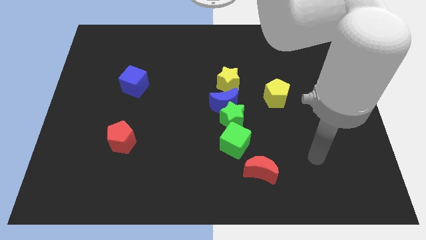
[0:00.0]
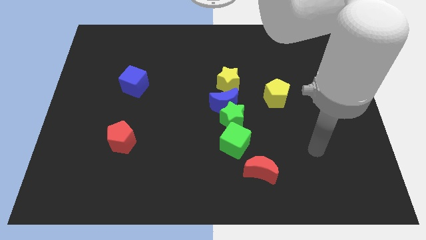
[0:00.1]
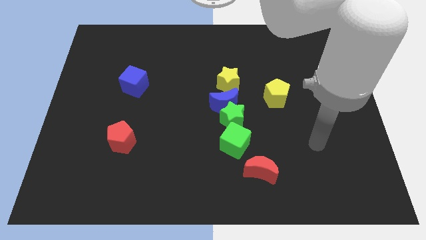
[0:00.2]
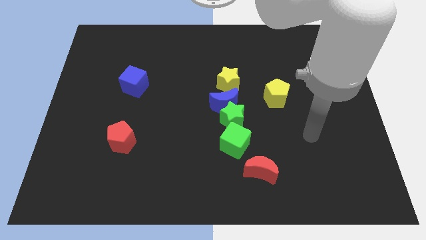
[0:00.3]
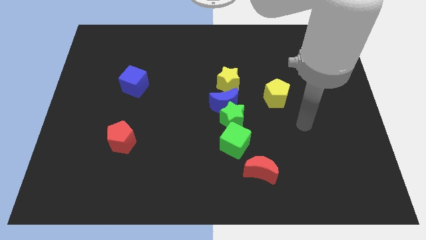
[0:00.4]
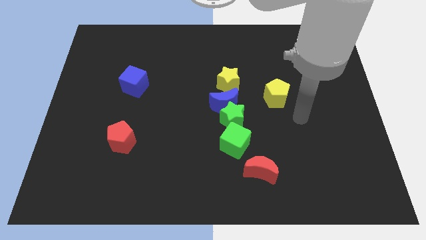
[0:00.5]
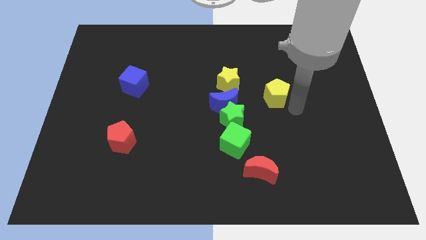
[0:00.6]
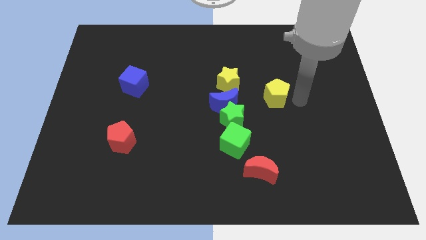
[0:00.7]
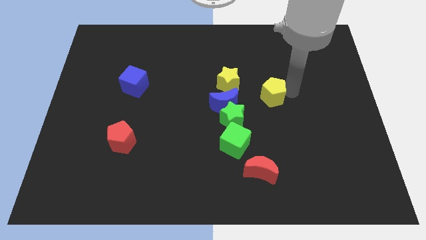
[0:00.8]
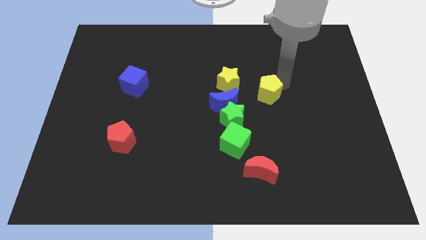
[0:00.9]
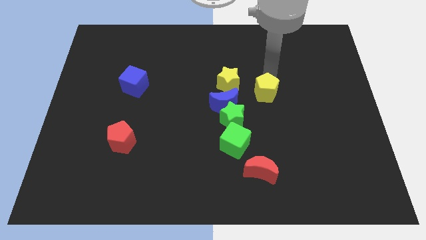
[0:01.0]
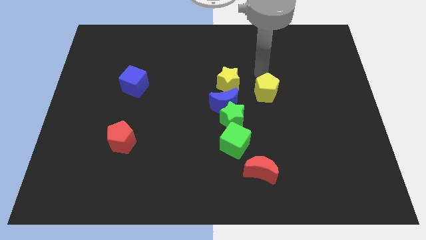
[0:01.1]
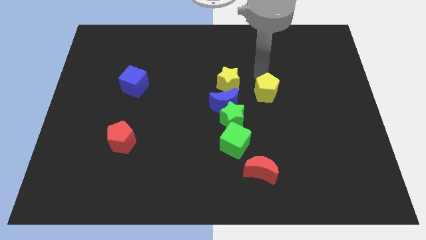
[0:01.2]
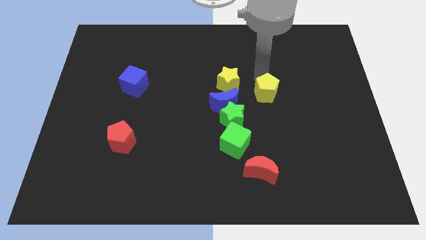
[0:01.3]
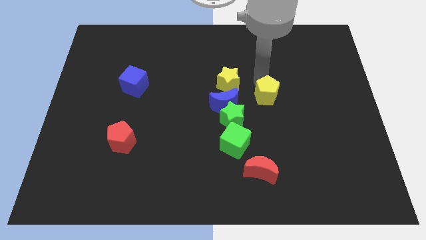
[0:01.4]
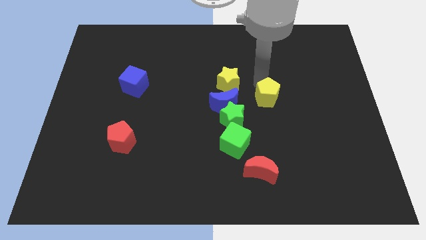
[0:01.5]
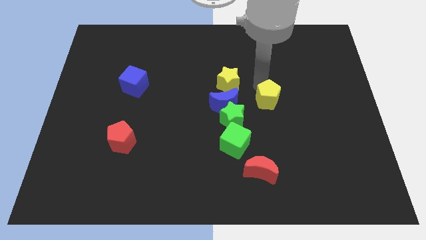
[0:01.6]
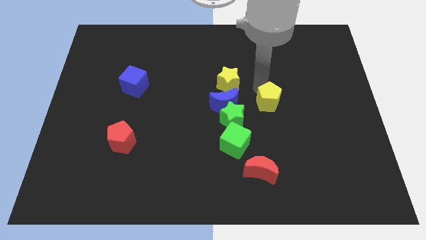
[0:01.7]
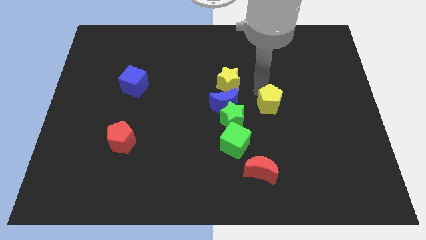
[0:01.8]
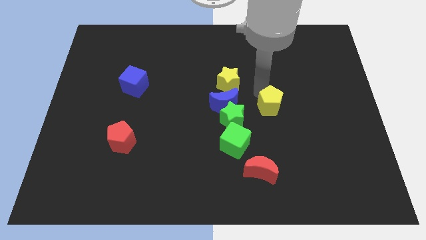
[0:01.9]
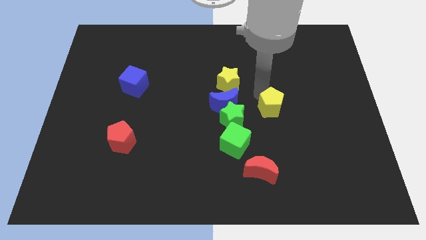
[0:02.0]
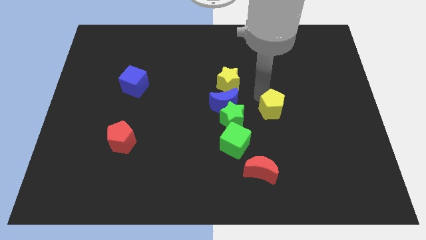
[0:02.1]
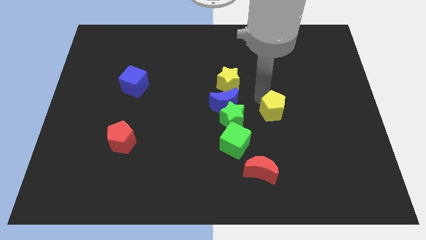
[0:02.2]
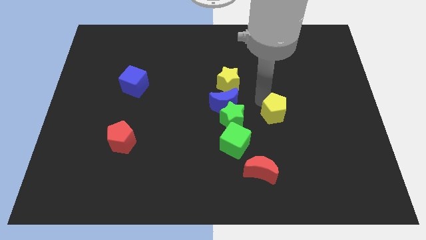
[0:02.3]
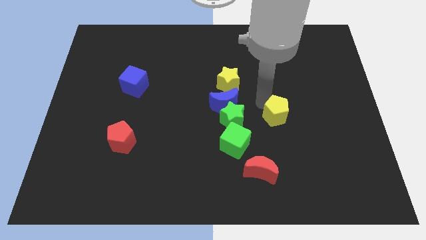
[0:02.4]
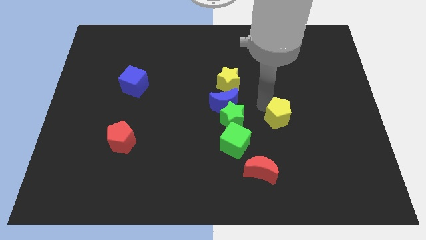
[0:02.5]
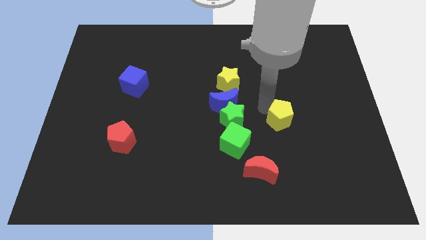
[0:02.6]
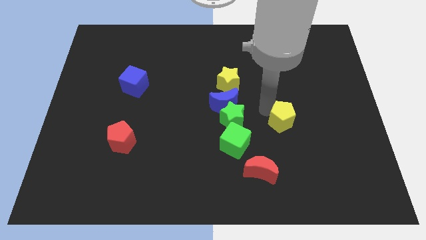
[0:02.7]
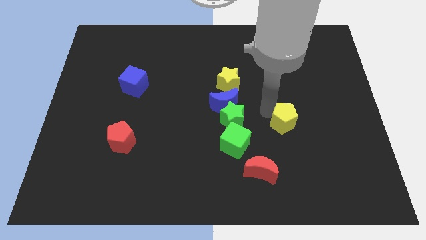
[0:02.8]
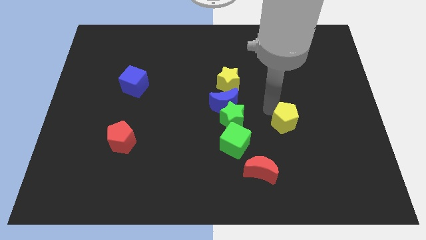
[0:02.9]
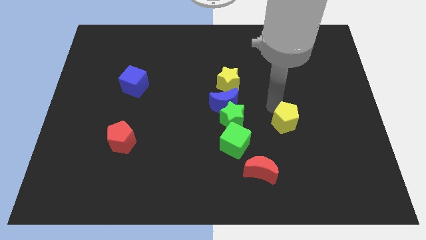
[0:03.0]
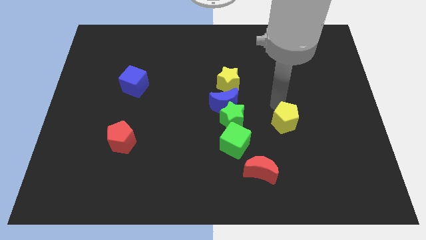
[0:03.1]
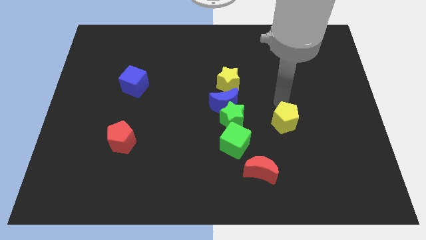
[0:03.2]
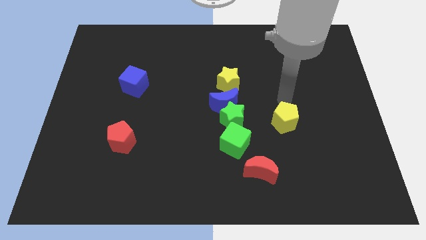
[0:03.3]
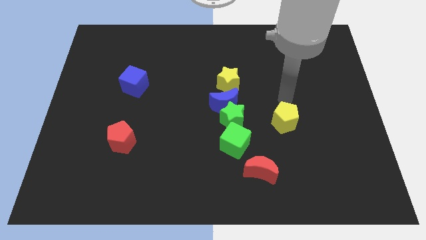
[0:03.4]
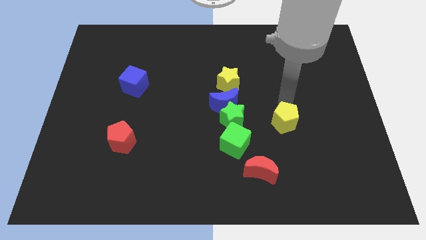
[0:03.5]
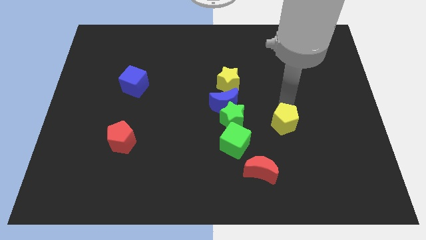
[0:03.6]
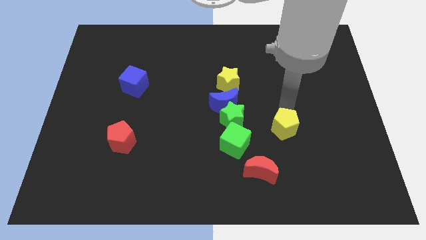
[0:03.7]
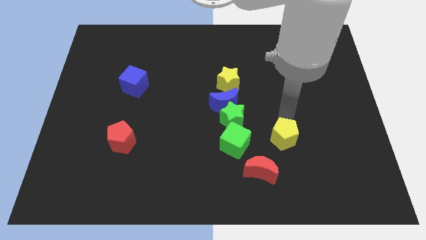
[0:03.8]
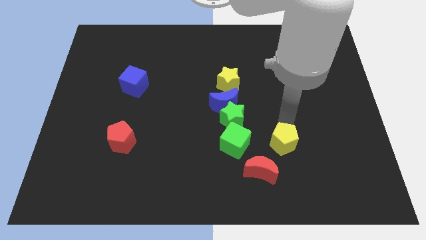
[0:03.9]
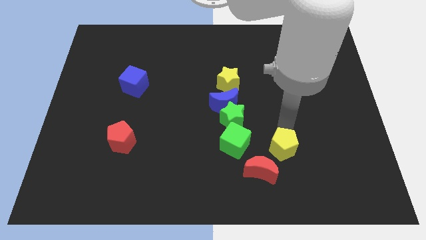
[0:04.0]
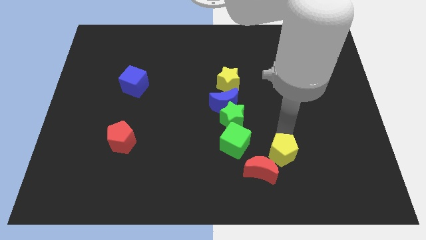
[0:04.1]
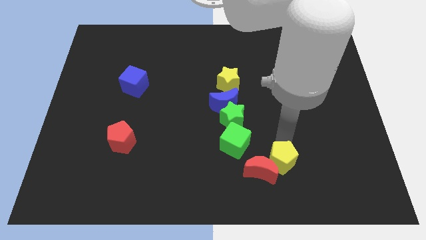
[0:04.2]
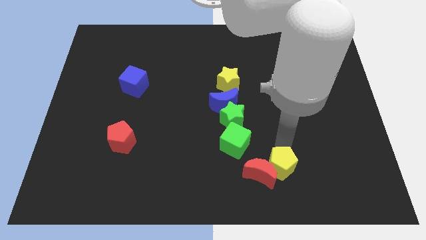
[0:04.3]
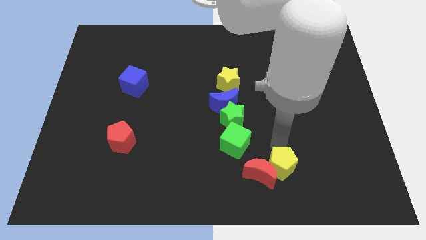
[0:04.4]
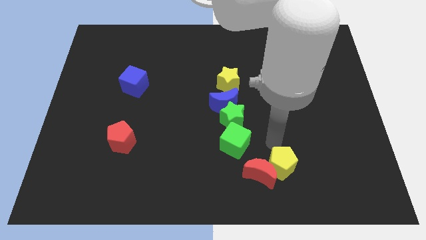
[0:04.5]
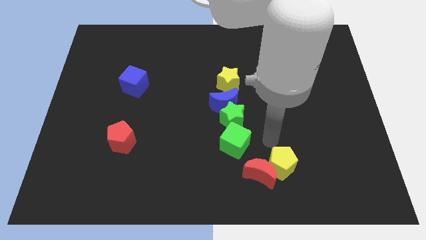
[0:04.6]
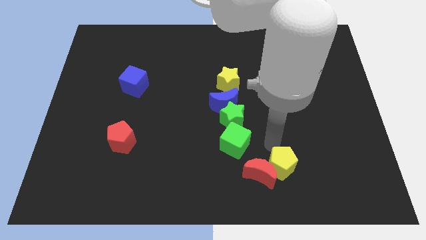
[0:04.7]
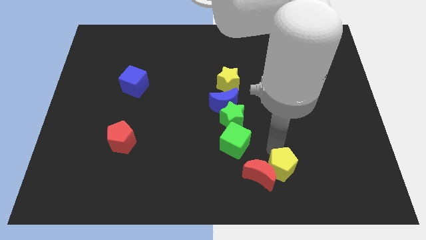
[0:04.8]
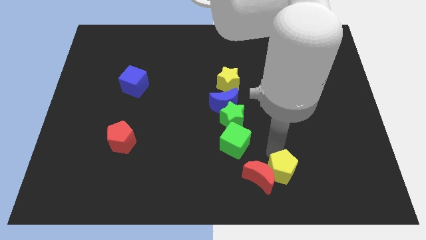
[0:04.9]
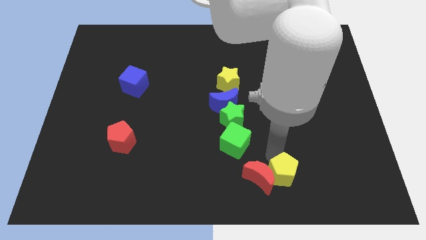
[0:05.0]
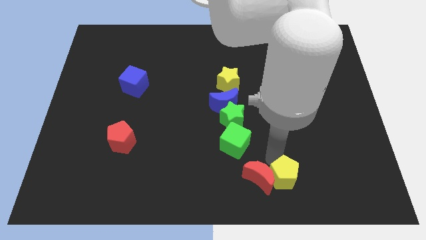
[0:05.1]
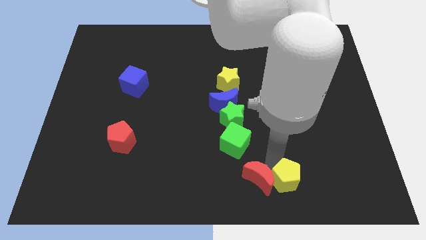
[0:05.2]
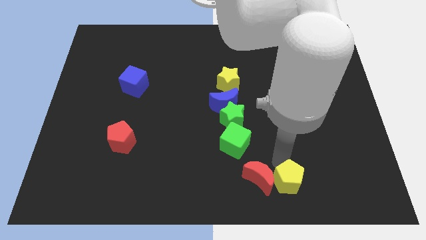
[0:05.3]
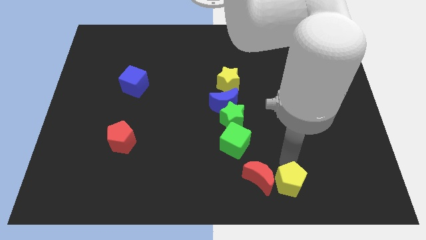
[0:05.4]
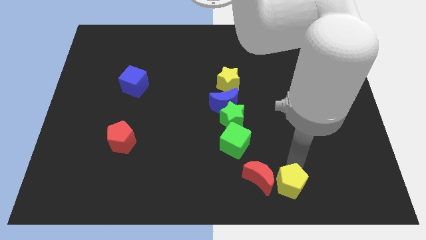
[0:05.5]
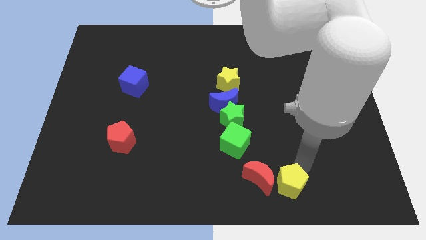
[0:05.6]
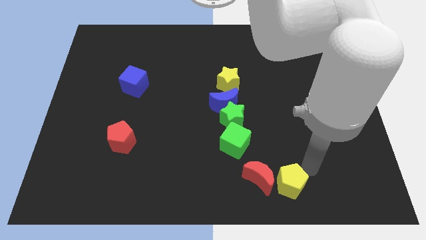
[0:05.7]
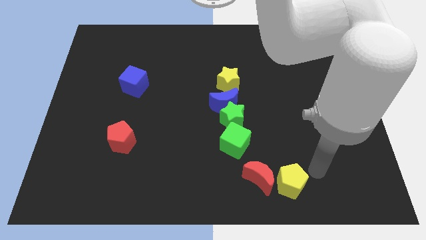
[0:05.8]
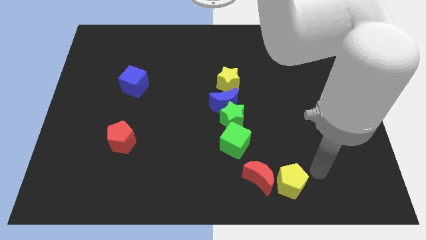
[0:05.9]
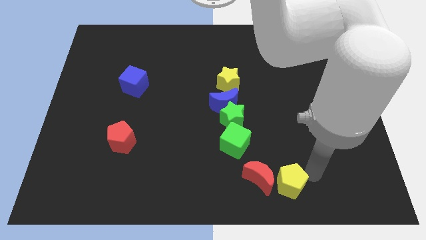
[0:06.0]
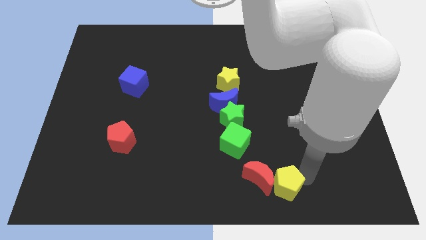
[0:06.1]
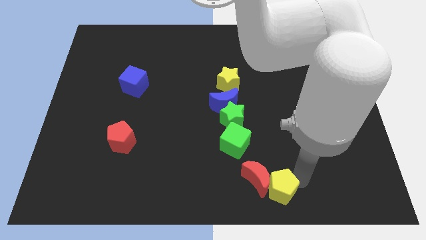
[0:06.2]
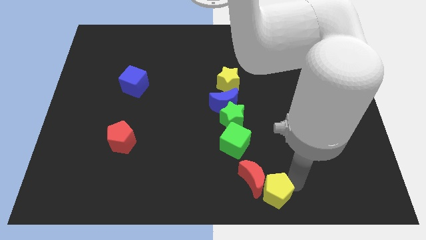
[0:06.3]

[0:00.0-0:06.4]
slide the yellow pentagon to the bottom side
